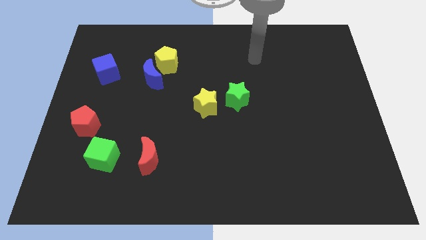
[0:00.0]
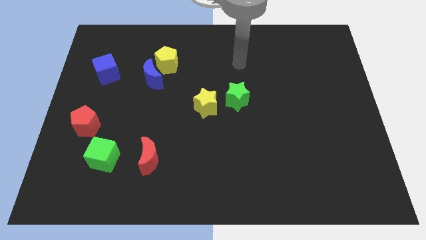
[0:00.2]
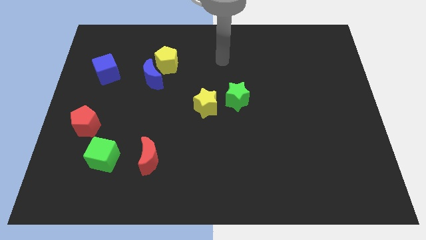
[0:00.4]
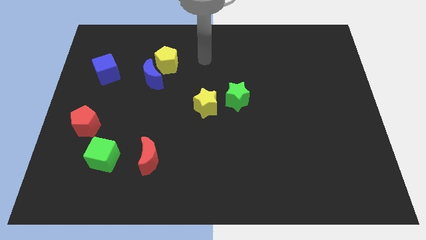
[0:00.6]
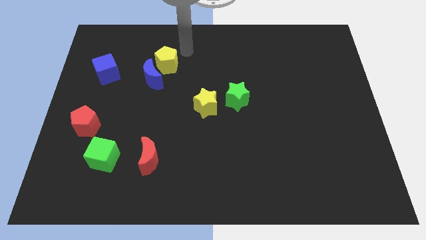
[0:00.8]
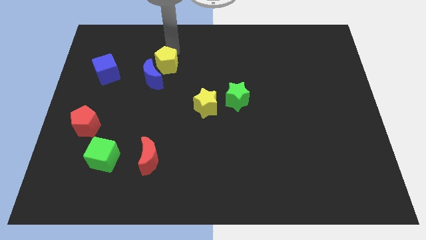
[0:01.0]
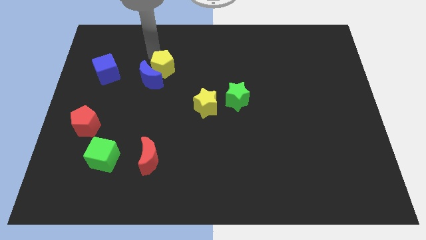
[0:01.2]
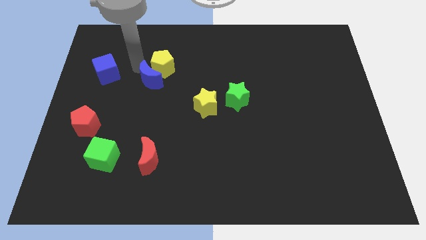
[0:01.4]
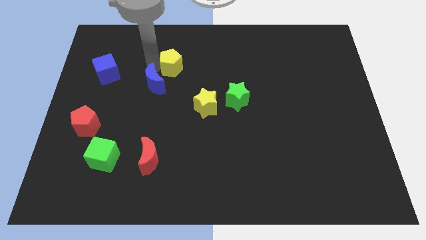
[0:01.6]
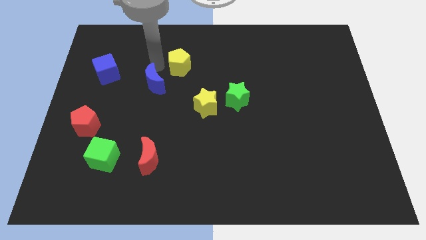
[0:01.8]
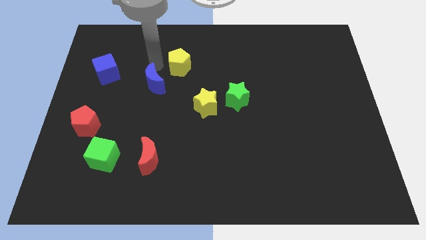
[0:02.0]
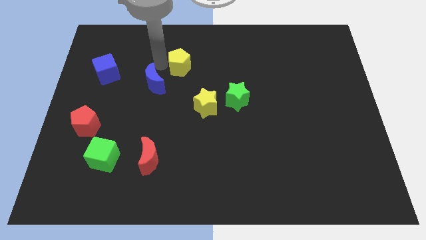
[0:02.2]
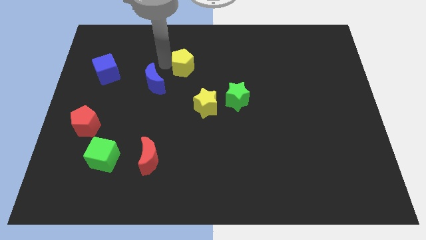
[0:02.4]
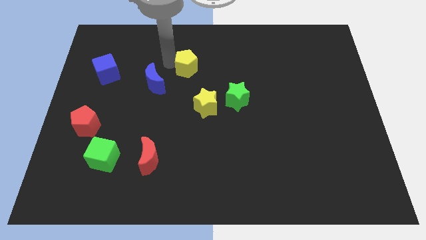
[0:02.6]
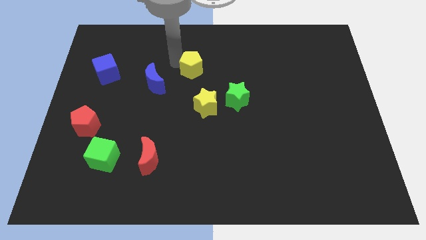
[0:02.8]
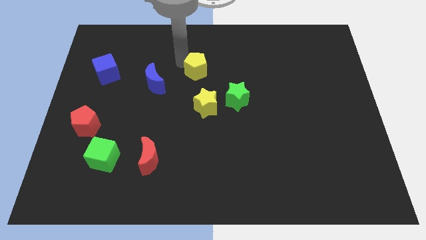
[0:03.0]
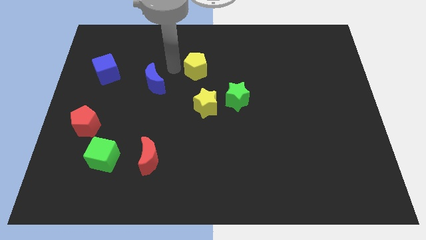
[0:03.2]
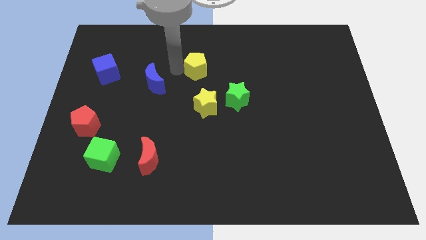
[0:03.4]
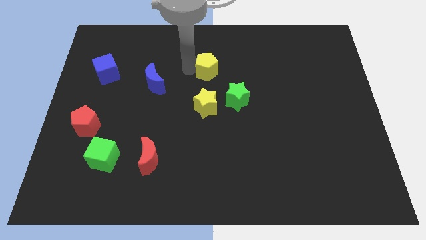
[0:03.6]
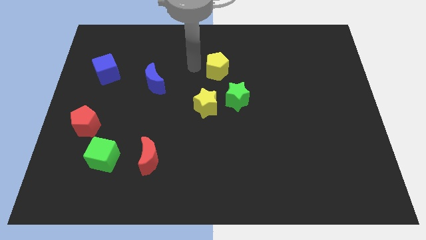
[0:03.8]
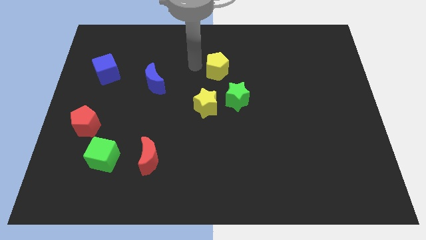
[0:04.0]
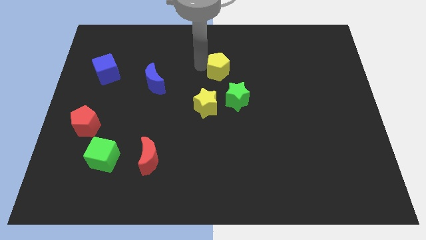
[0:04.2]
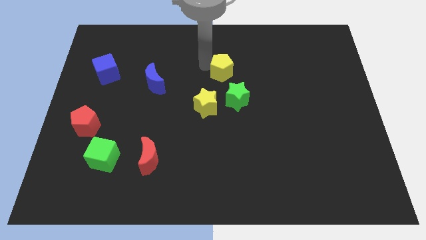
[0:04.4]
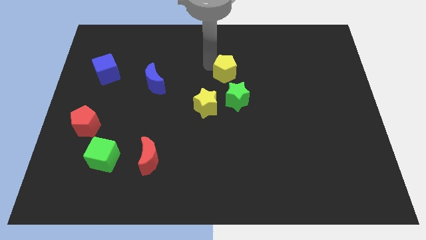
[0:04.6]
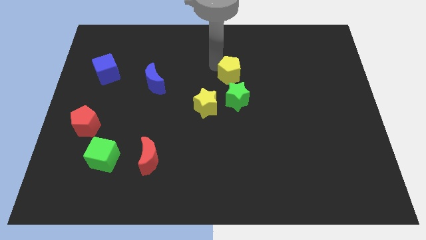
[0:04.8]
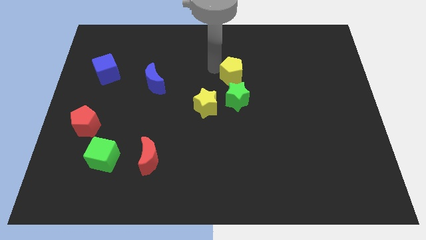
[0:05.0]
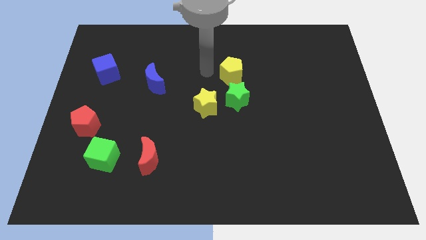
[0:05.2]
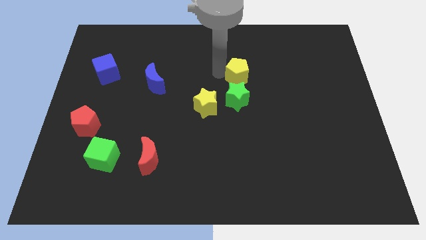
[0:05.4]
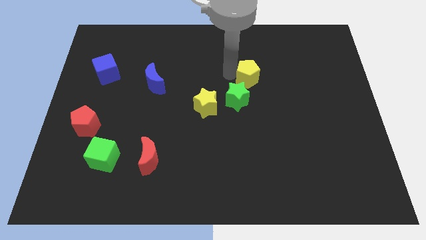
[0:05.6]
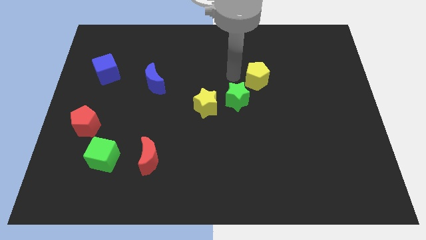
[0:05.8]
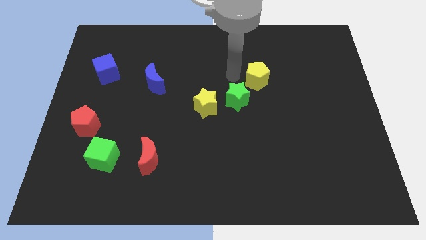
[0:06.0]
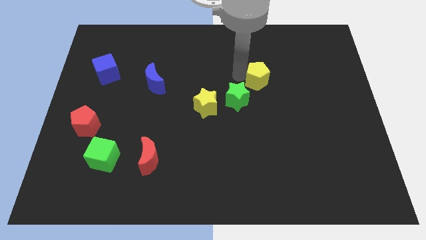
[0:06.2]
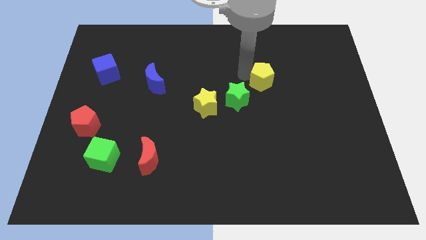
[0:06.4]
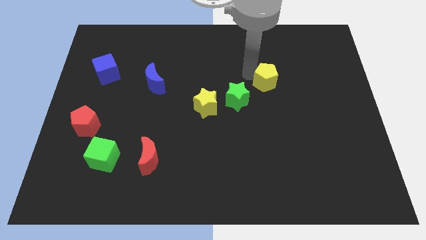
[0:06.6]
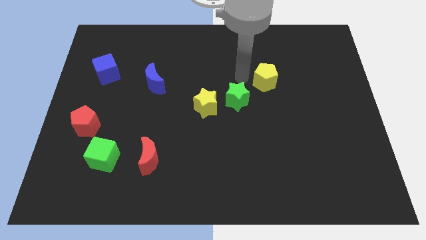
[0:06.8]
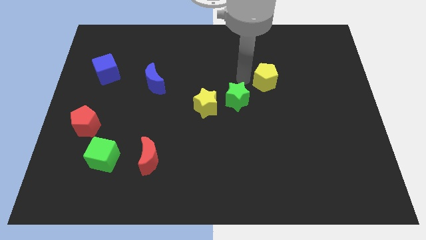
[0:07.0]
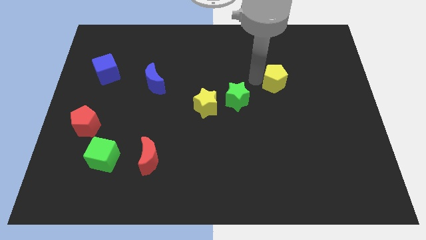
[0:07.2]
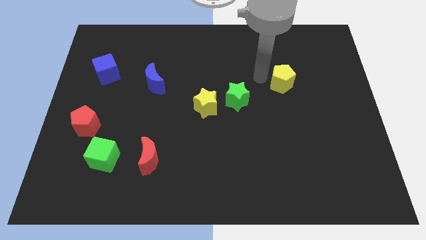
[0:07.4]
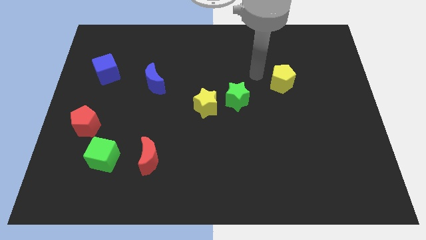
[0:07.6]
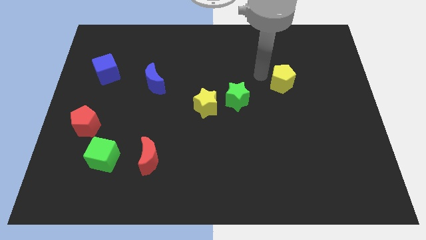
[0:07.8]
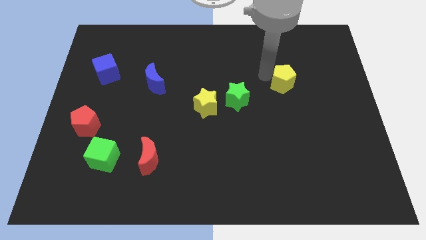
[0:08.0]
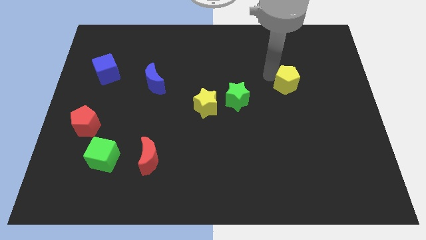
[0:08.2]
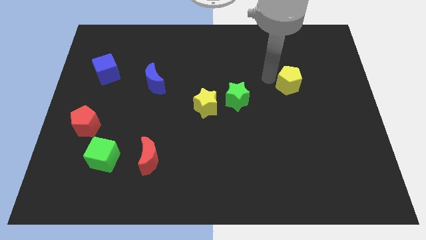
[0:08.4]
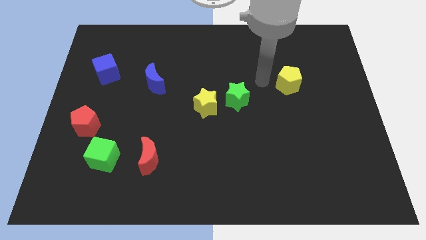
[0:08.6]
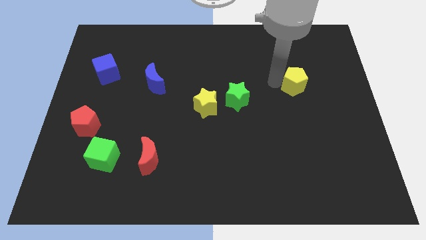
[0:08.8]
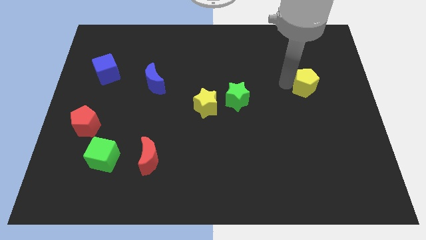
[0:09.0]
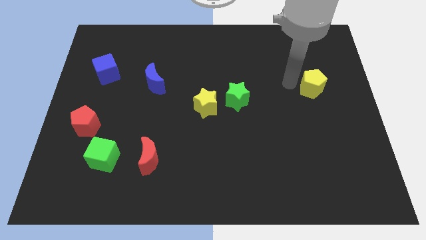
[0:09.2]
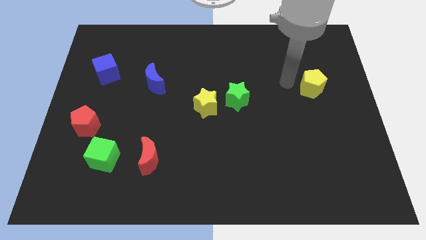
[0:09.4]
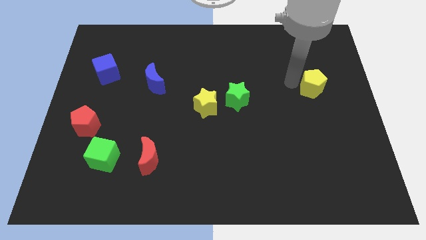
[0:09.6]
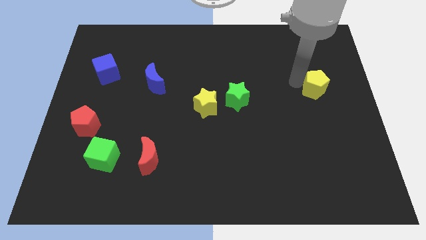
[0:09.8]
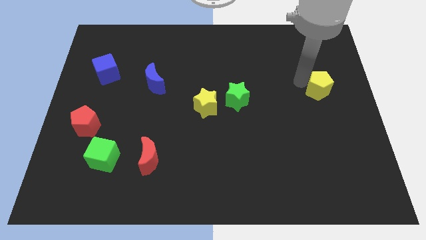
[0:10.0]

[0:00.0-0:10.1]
slide the yellow pentagon to the center right

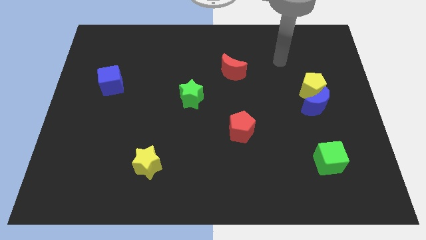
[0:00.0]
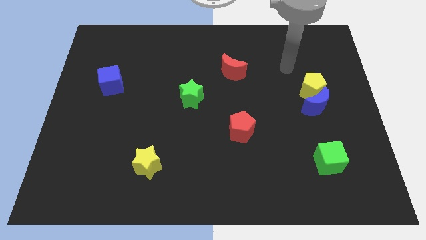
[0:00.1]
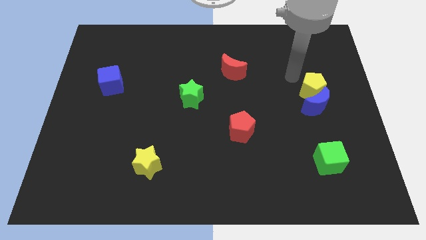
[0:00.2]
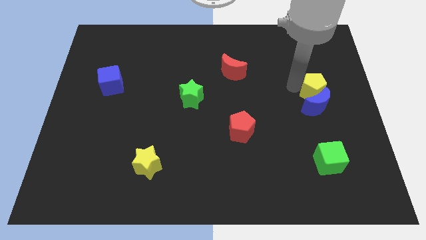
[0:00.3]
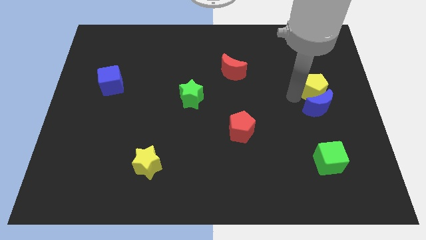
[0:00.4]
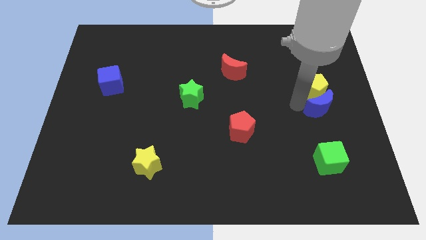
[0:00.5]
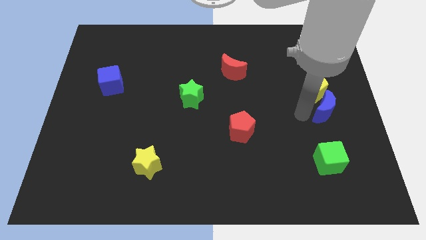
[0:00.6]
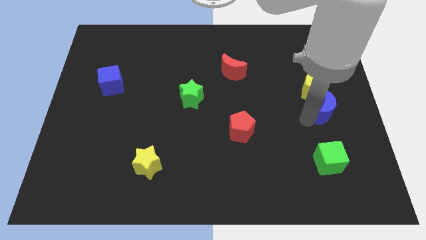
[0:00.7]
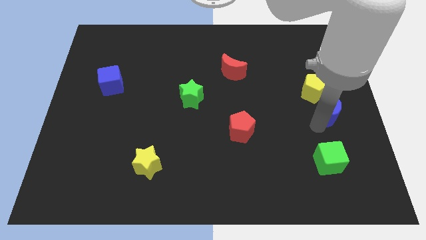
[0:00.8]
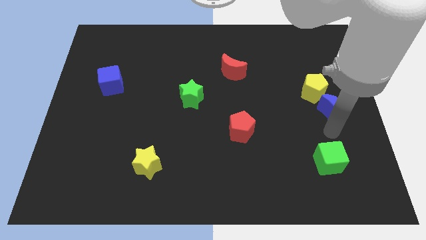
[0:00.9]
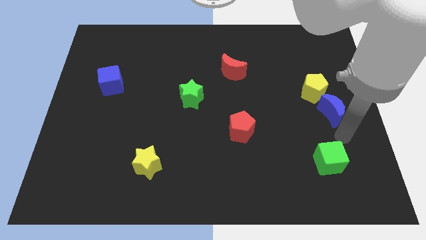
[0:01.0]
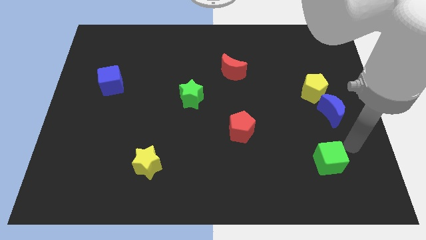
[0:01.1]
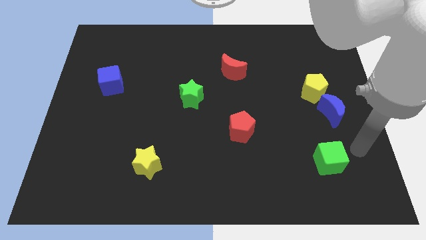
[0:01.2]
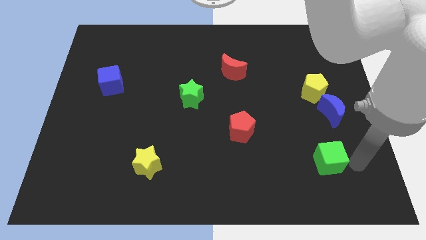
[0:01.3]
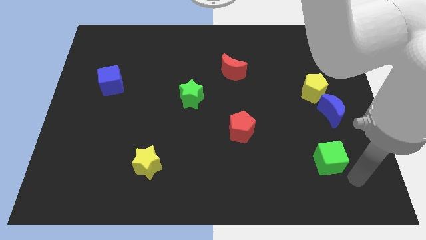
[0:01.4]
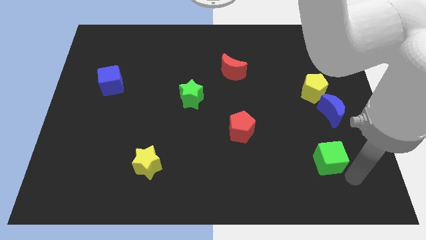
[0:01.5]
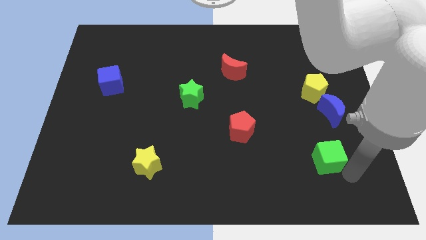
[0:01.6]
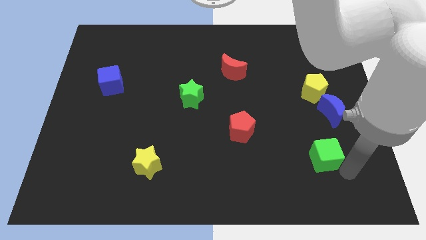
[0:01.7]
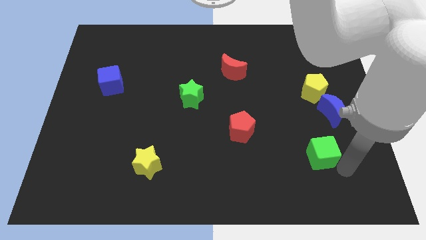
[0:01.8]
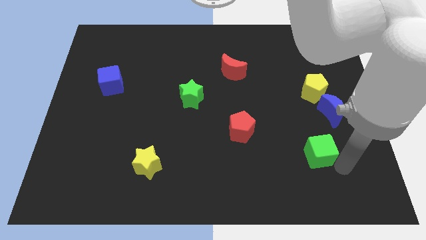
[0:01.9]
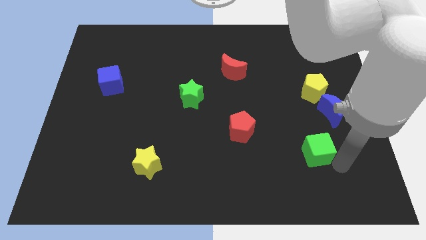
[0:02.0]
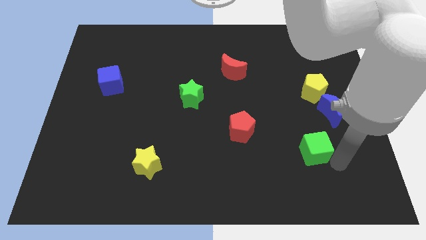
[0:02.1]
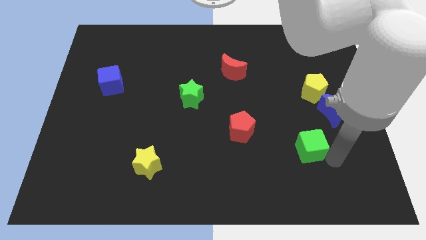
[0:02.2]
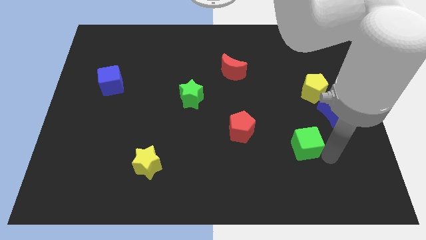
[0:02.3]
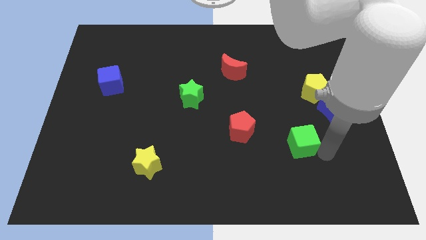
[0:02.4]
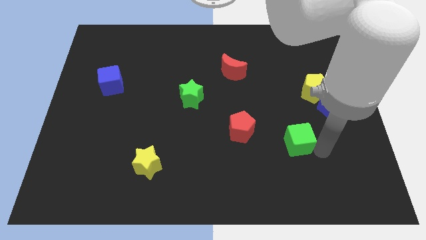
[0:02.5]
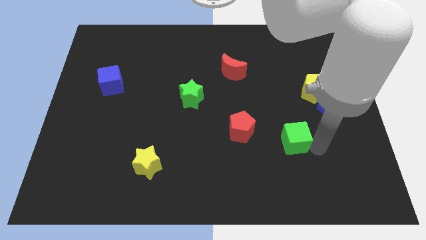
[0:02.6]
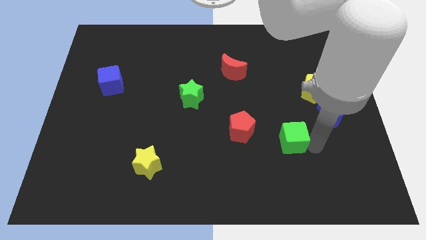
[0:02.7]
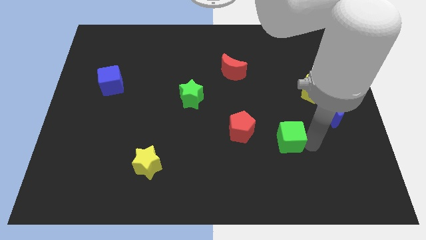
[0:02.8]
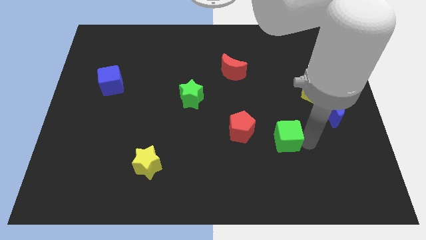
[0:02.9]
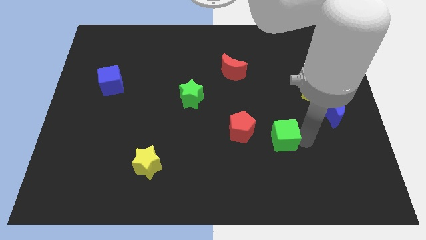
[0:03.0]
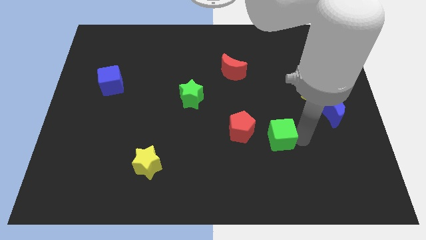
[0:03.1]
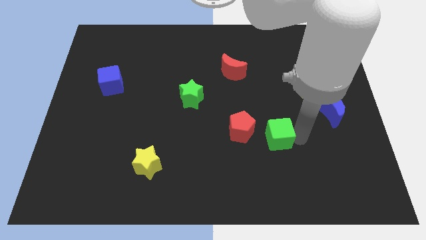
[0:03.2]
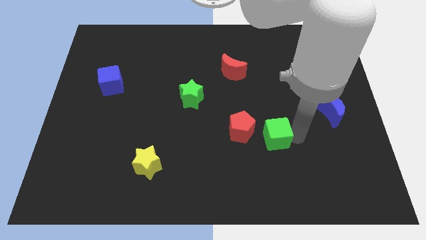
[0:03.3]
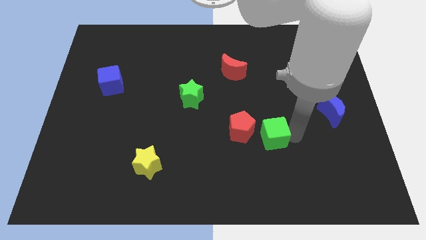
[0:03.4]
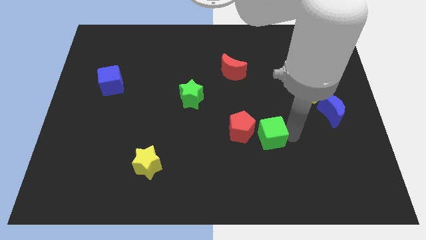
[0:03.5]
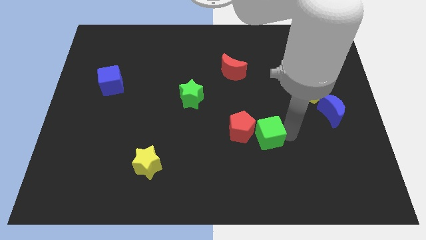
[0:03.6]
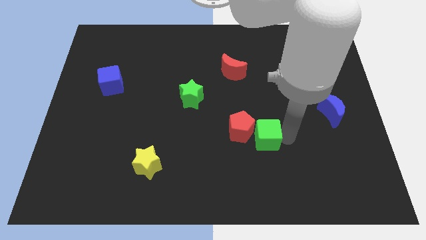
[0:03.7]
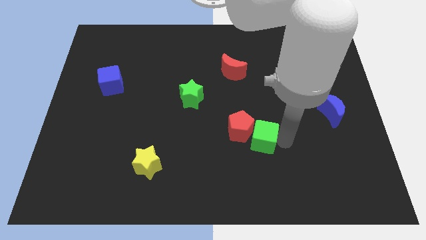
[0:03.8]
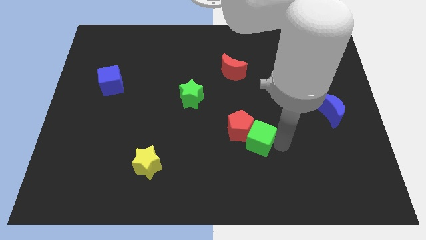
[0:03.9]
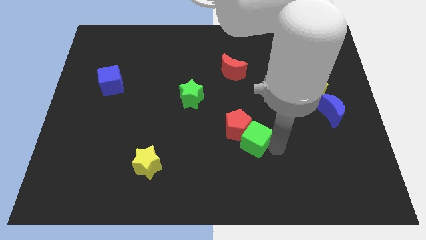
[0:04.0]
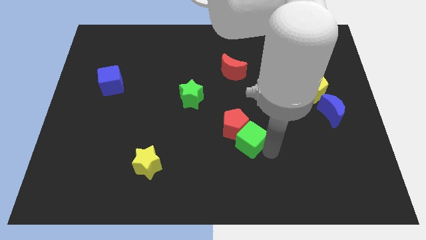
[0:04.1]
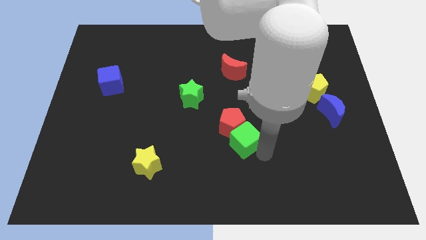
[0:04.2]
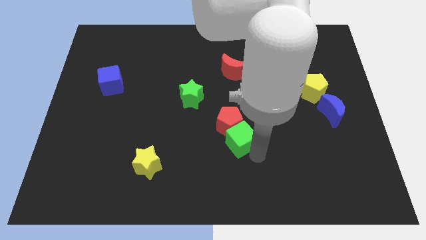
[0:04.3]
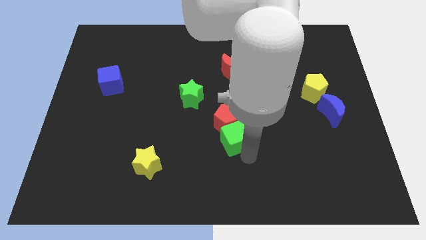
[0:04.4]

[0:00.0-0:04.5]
push the green cube to the middle of the board
